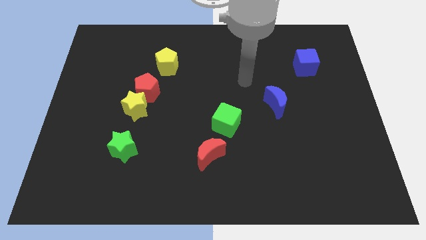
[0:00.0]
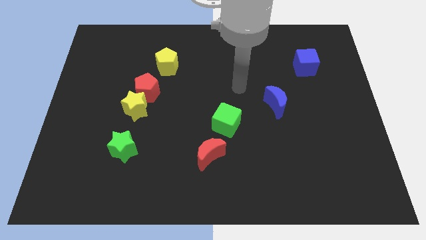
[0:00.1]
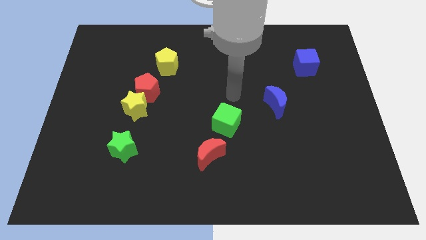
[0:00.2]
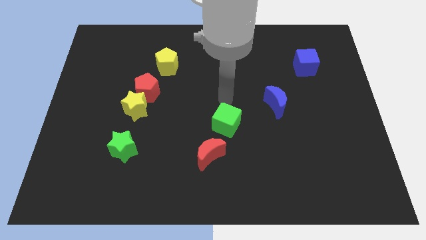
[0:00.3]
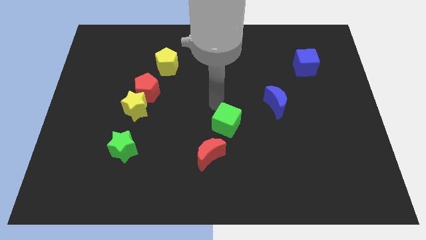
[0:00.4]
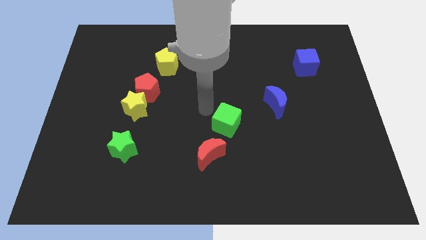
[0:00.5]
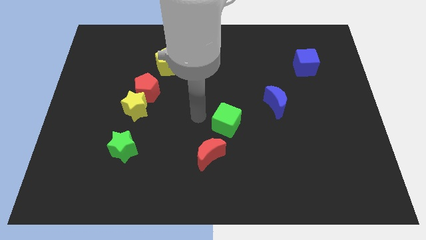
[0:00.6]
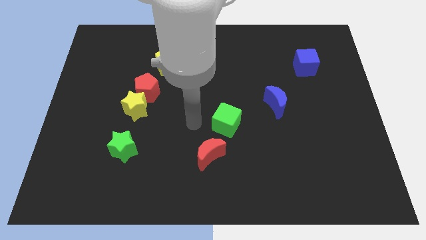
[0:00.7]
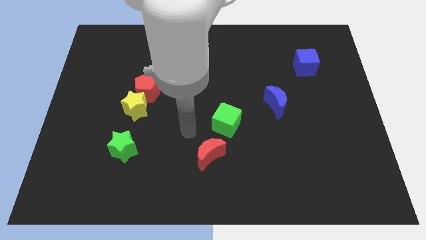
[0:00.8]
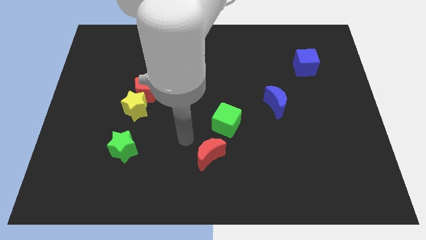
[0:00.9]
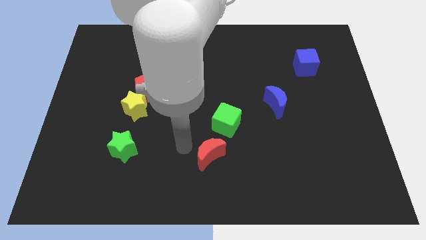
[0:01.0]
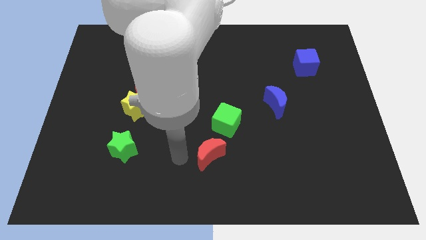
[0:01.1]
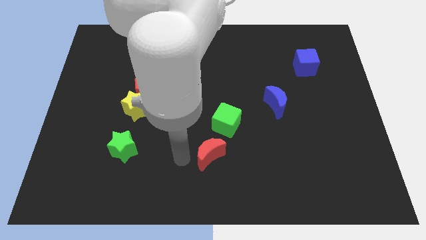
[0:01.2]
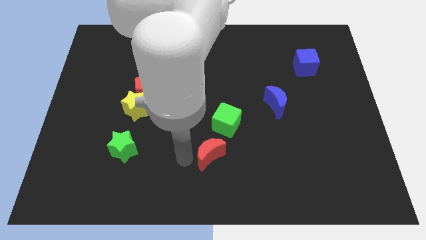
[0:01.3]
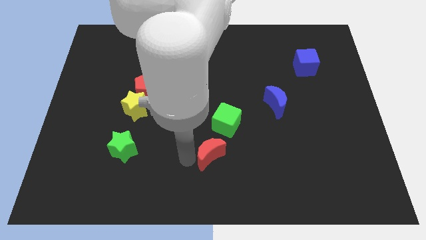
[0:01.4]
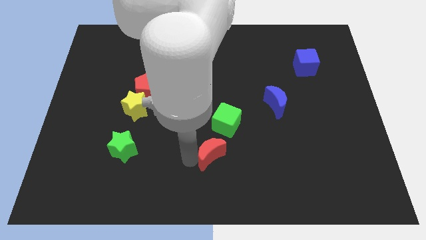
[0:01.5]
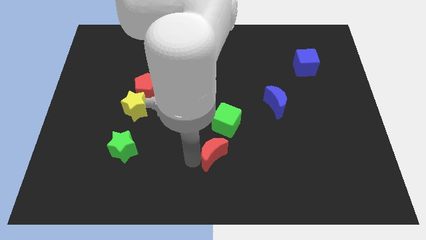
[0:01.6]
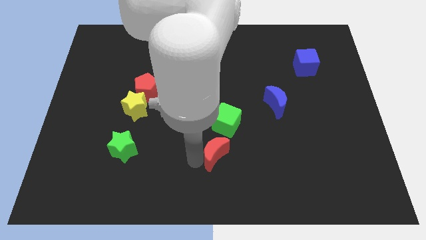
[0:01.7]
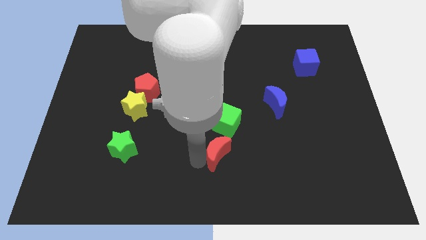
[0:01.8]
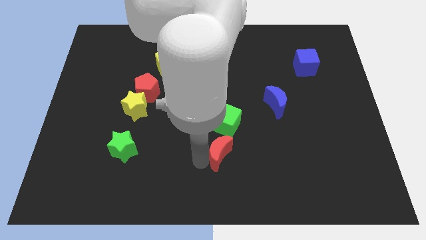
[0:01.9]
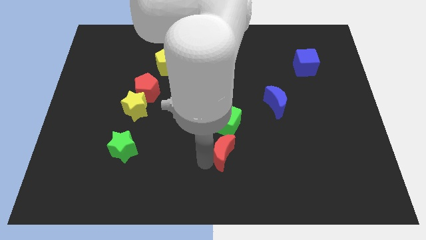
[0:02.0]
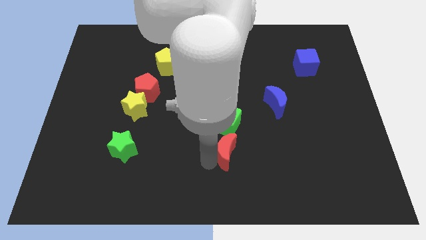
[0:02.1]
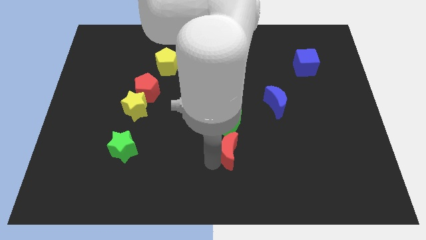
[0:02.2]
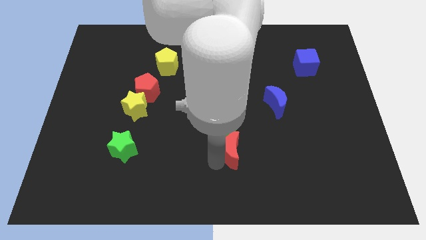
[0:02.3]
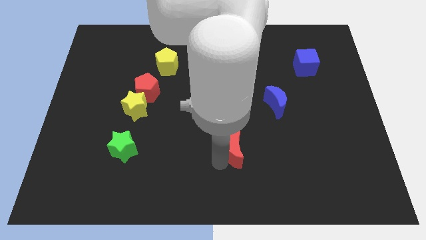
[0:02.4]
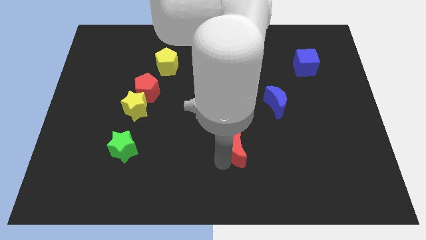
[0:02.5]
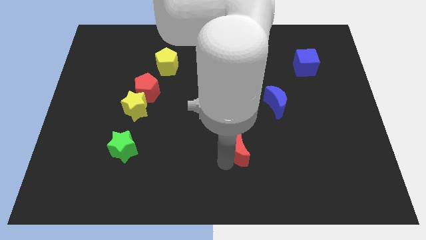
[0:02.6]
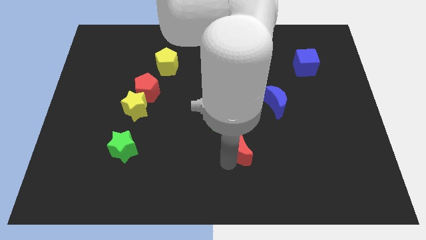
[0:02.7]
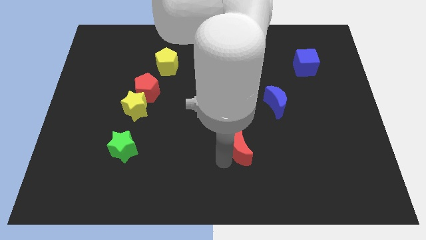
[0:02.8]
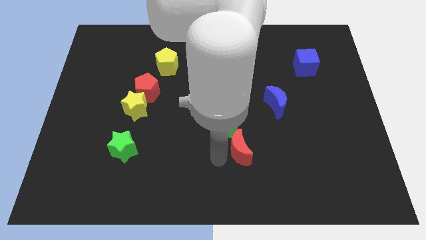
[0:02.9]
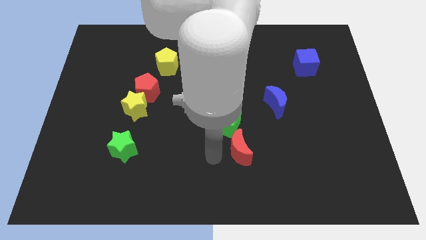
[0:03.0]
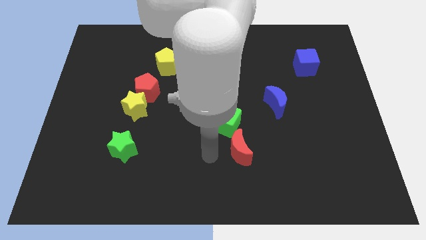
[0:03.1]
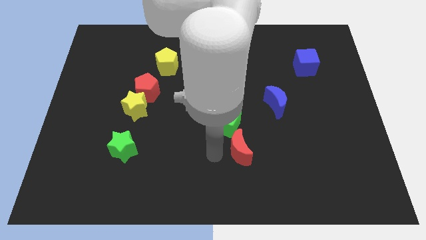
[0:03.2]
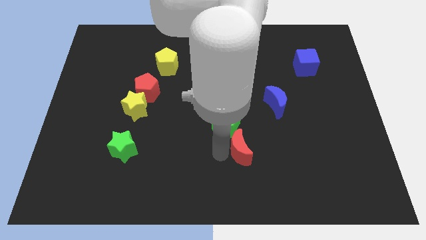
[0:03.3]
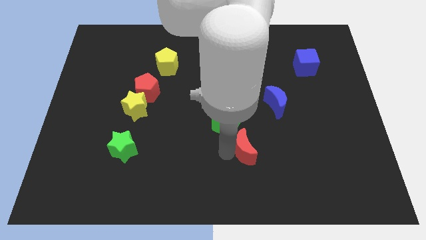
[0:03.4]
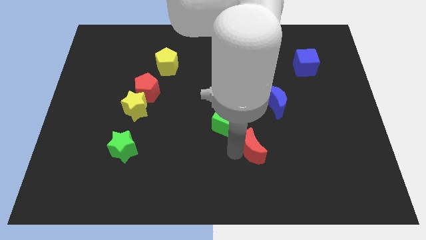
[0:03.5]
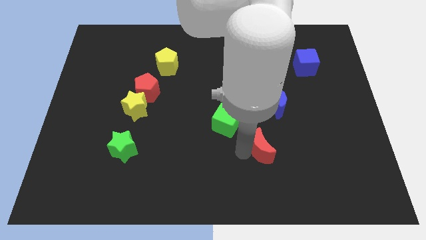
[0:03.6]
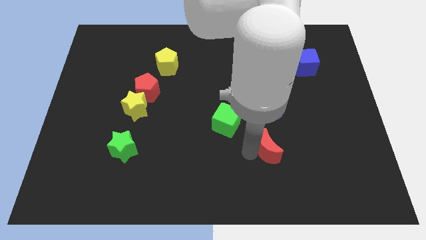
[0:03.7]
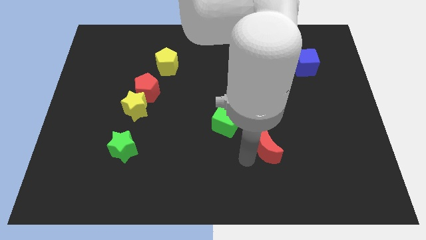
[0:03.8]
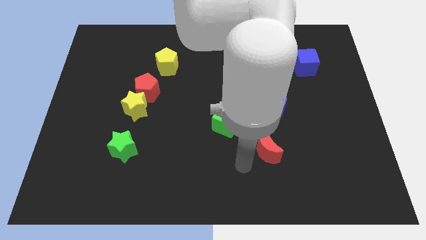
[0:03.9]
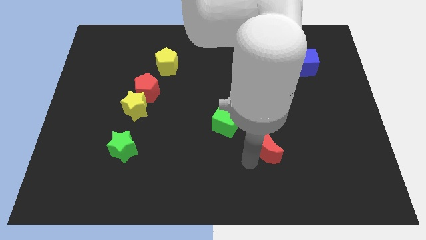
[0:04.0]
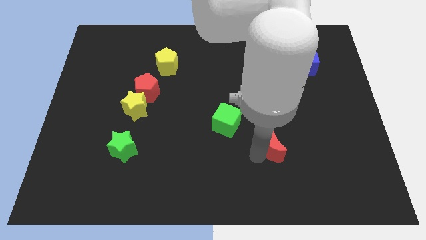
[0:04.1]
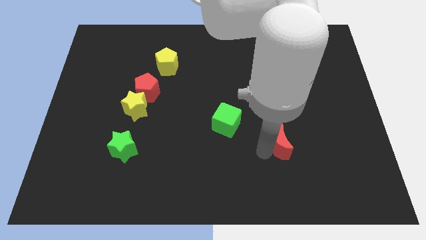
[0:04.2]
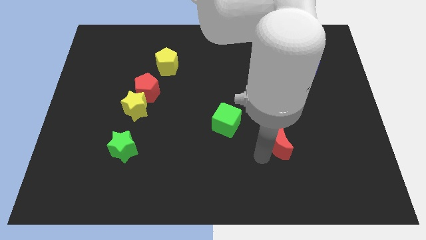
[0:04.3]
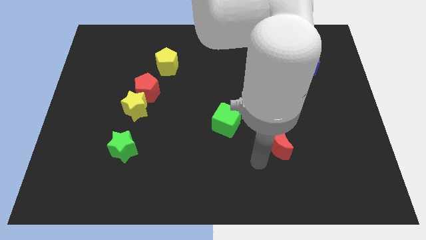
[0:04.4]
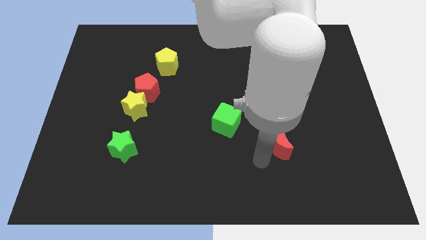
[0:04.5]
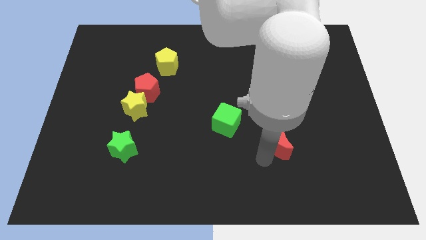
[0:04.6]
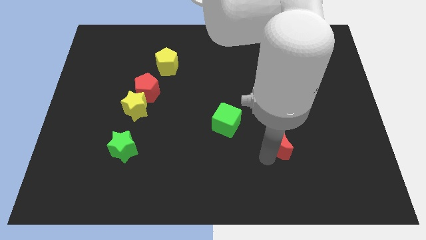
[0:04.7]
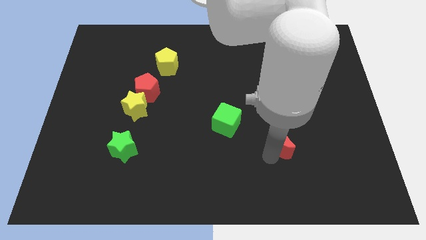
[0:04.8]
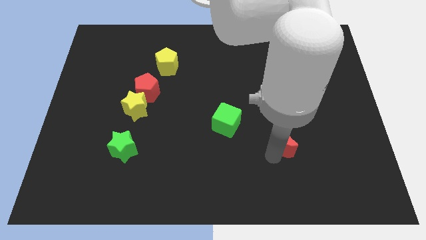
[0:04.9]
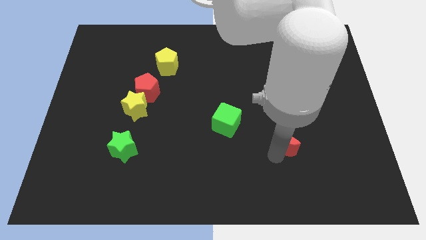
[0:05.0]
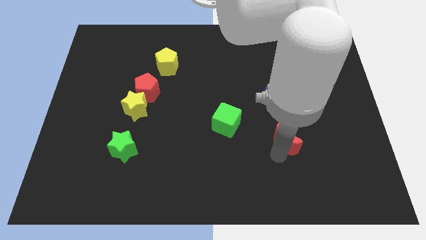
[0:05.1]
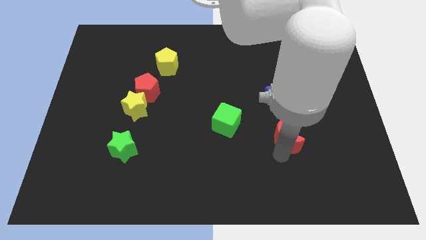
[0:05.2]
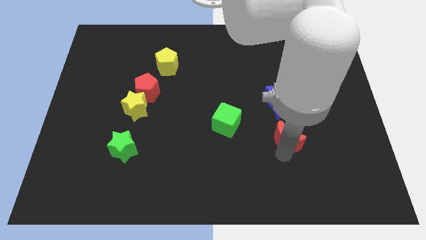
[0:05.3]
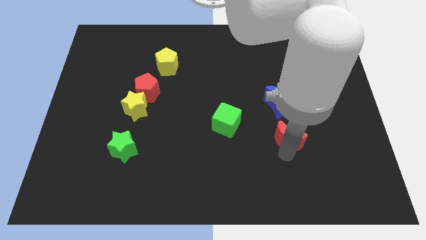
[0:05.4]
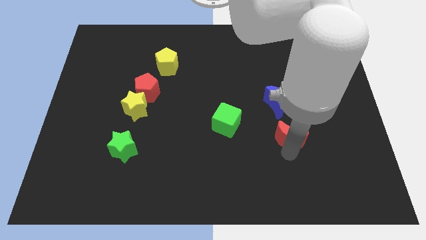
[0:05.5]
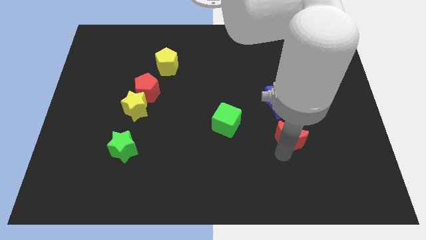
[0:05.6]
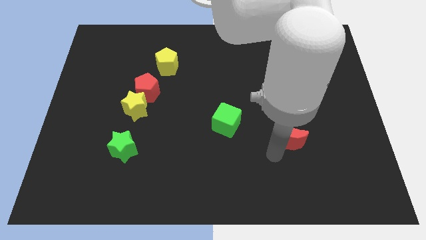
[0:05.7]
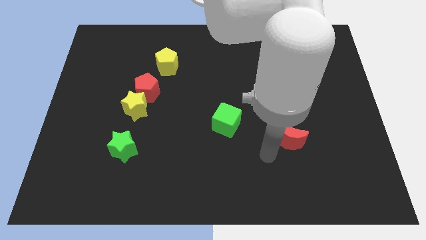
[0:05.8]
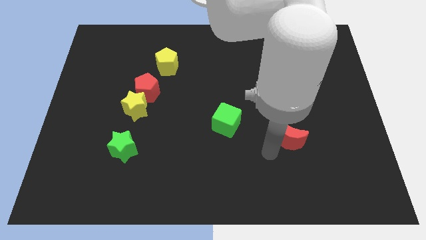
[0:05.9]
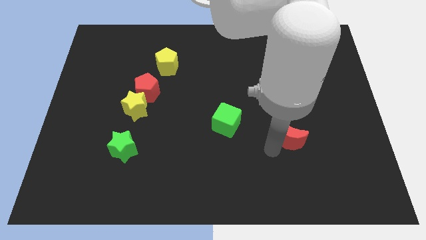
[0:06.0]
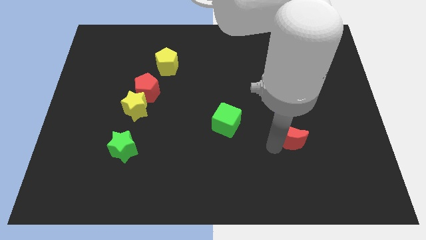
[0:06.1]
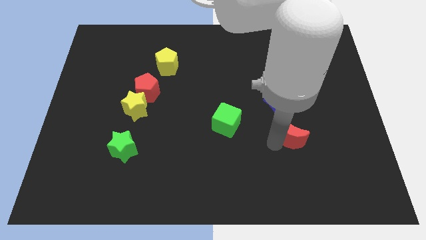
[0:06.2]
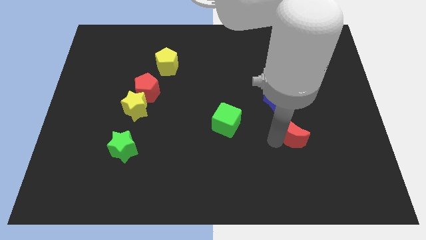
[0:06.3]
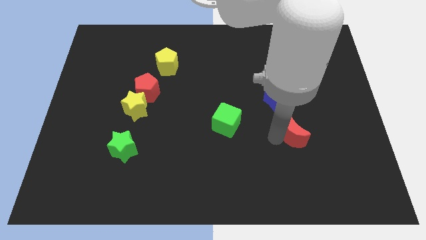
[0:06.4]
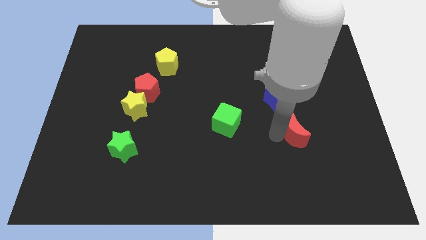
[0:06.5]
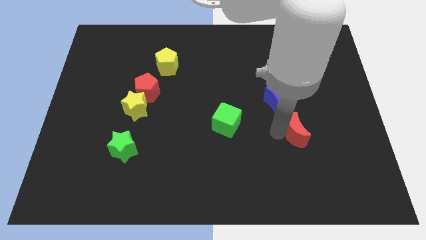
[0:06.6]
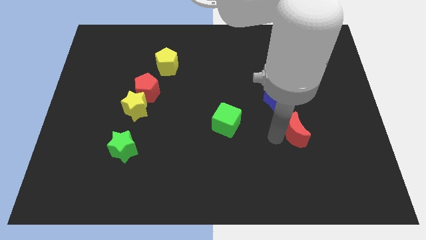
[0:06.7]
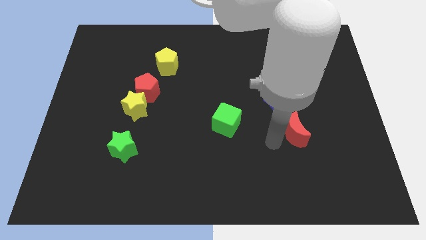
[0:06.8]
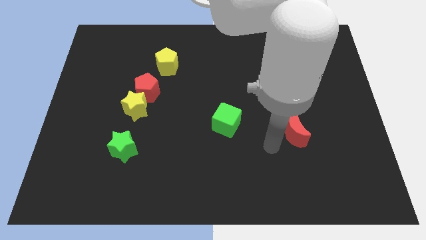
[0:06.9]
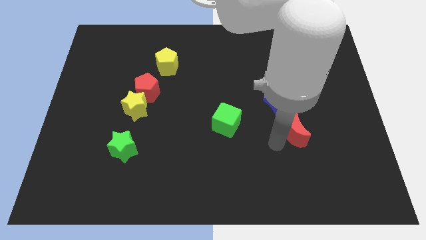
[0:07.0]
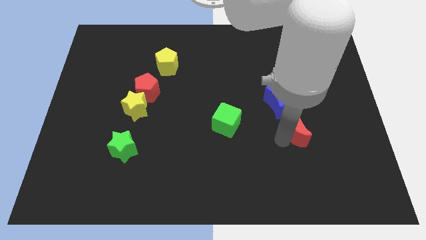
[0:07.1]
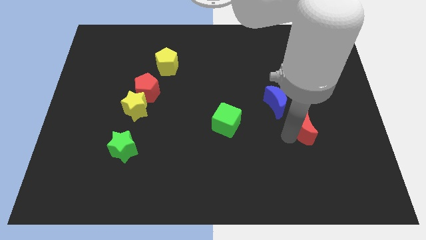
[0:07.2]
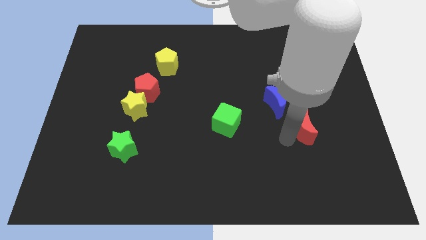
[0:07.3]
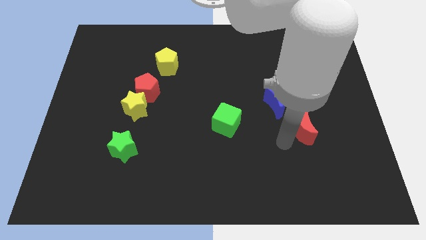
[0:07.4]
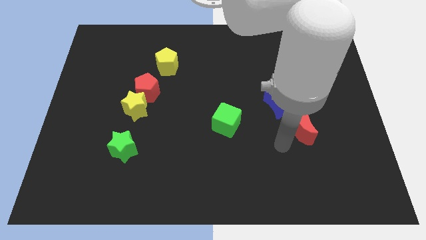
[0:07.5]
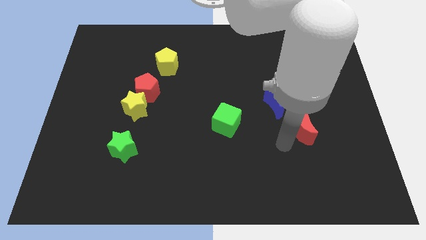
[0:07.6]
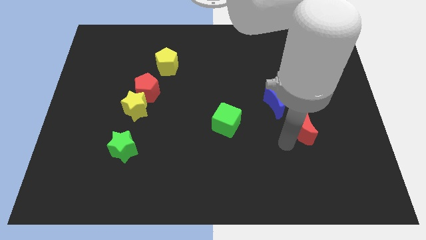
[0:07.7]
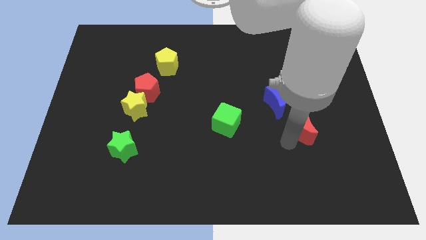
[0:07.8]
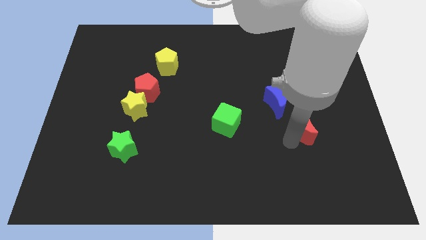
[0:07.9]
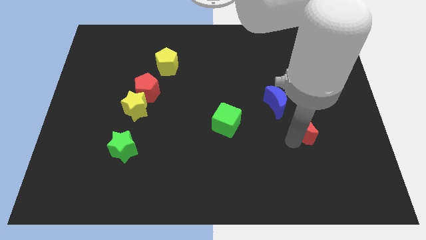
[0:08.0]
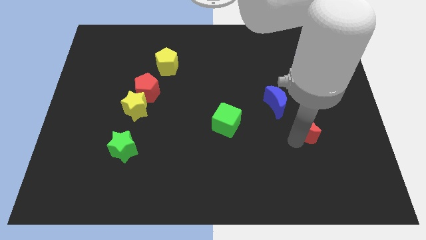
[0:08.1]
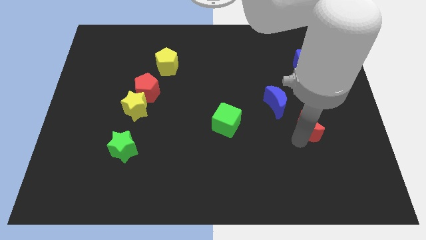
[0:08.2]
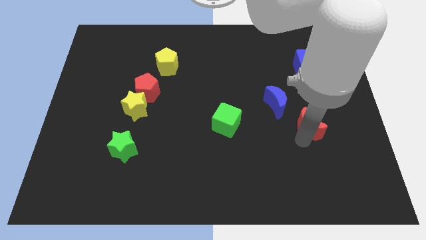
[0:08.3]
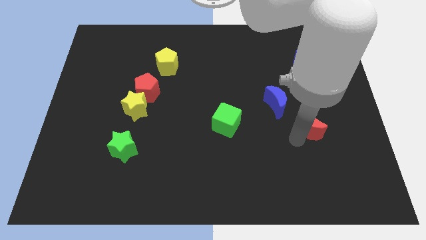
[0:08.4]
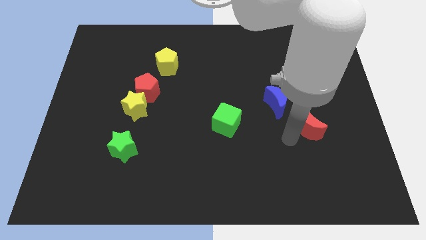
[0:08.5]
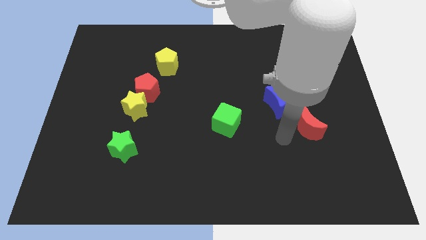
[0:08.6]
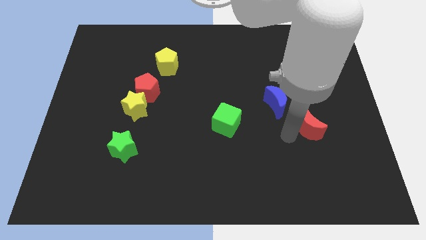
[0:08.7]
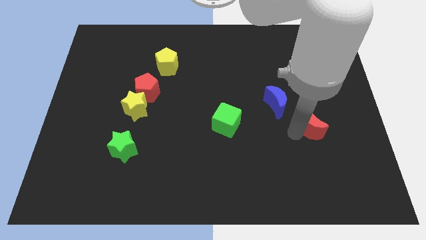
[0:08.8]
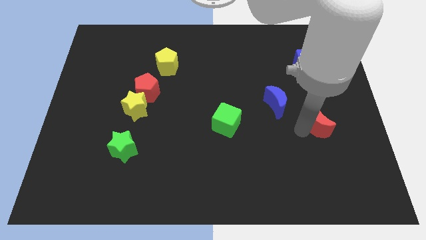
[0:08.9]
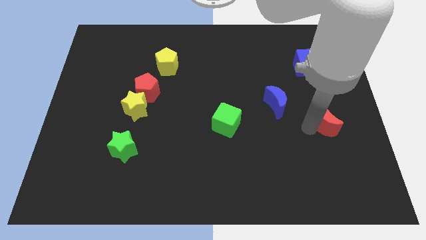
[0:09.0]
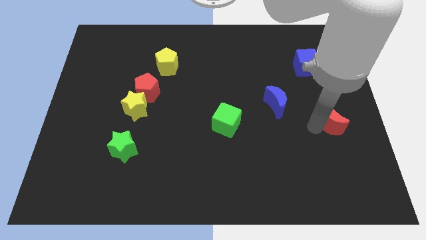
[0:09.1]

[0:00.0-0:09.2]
put the red moon to the right side of the board
